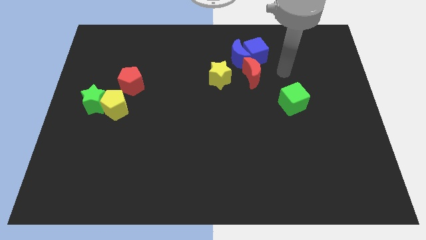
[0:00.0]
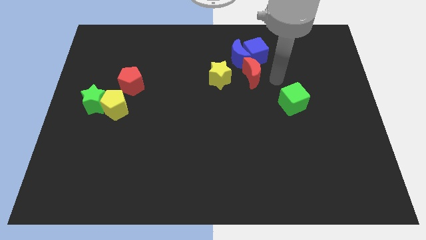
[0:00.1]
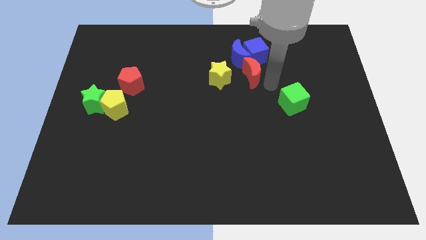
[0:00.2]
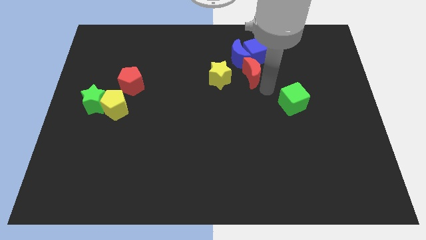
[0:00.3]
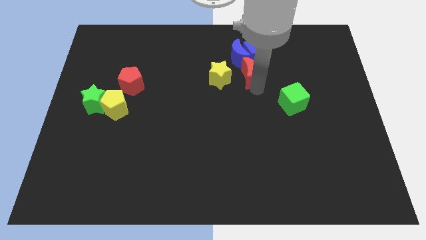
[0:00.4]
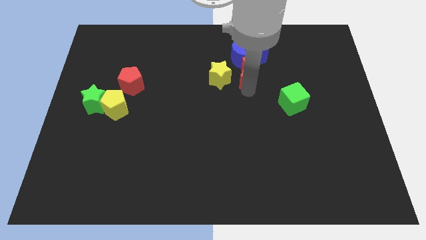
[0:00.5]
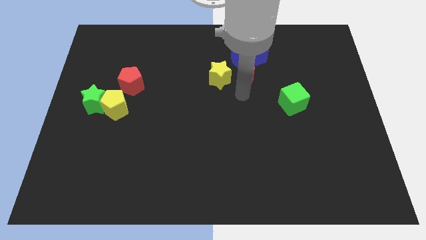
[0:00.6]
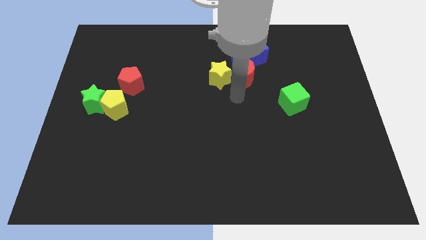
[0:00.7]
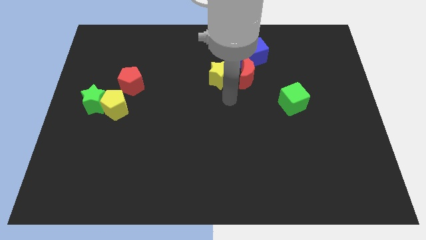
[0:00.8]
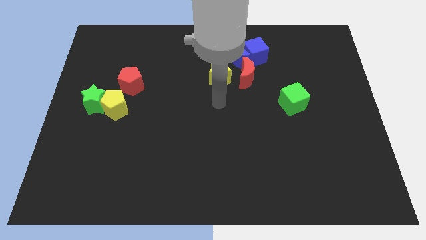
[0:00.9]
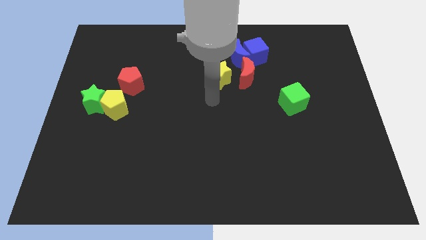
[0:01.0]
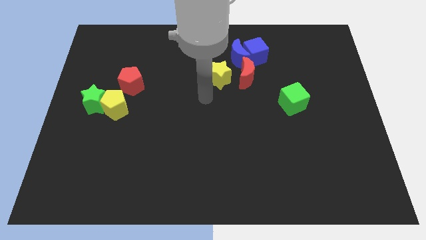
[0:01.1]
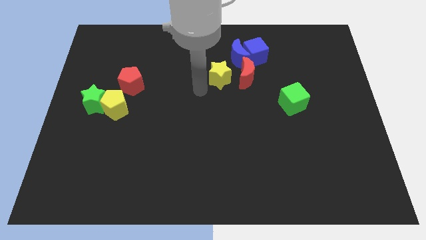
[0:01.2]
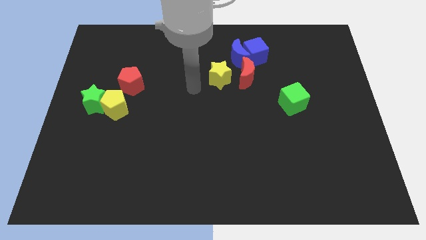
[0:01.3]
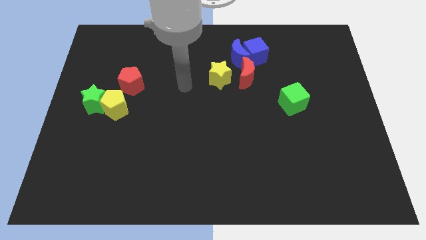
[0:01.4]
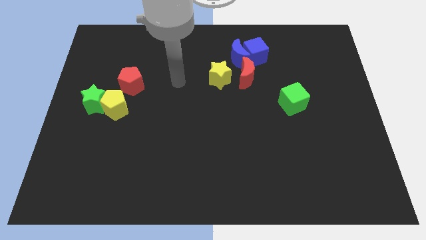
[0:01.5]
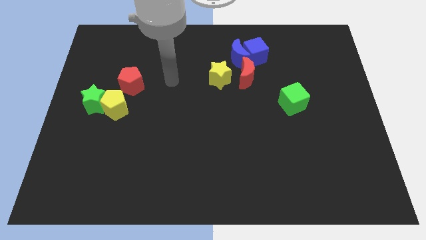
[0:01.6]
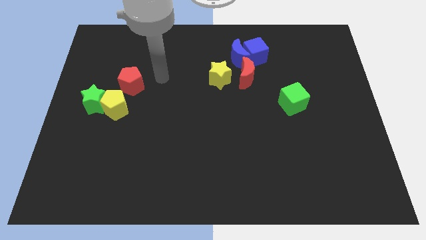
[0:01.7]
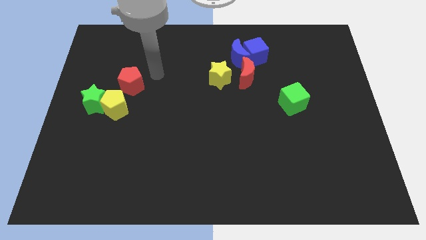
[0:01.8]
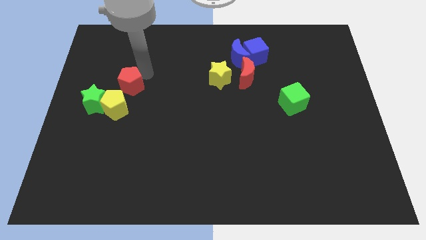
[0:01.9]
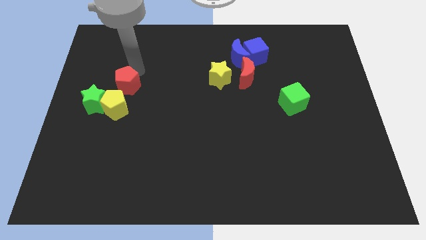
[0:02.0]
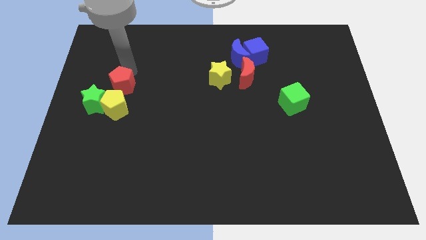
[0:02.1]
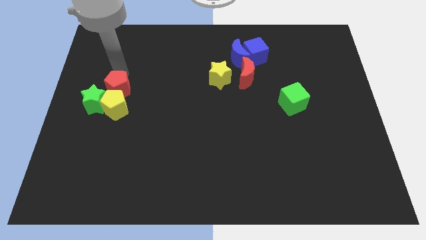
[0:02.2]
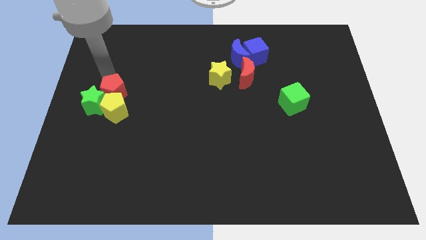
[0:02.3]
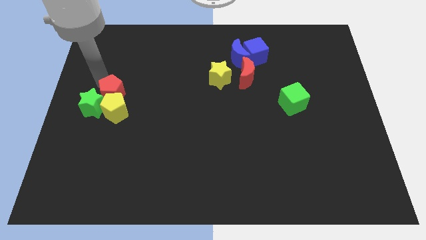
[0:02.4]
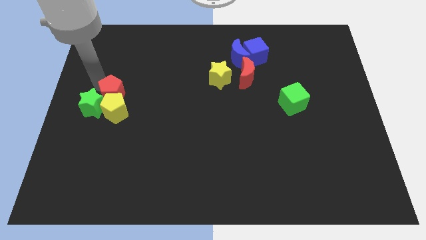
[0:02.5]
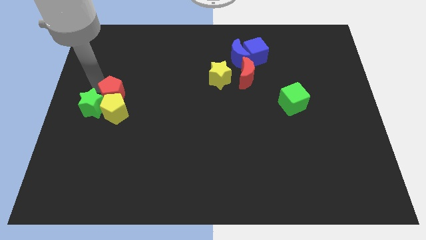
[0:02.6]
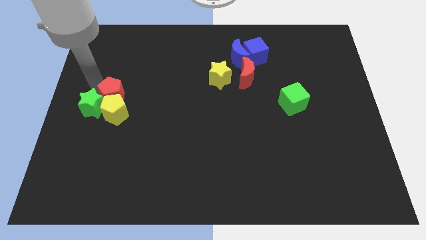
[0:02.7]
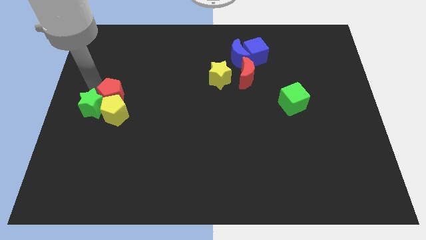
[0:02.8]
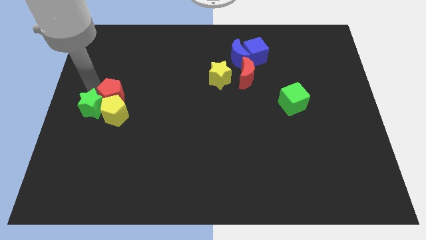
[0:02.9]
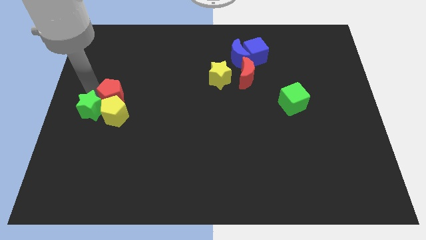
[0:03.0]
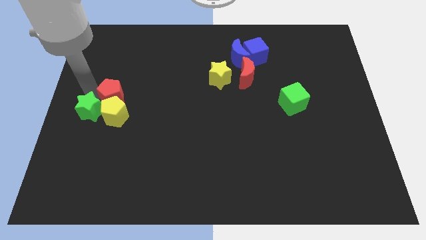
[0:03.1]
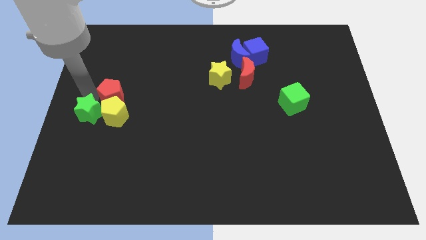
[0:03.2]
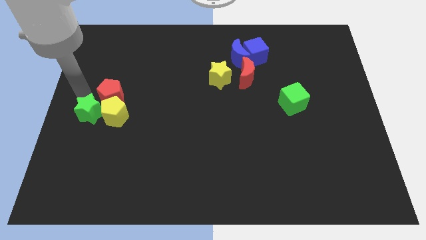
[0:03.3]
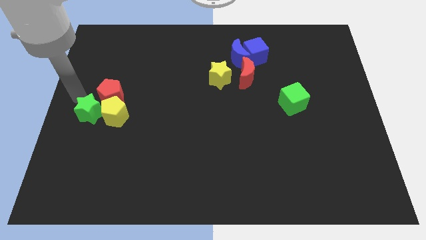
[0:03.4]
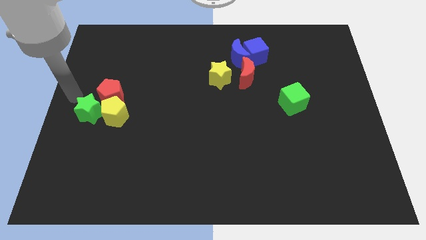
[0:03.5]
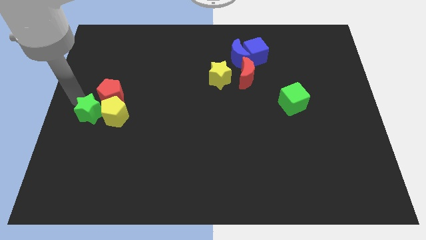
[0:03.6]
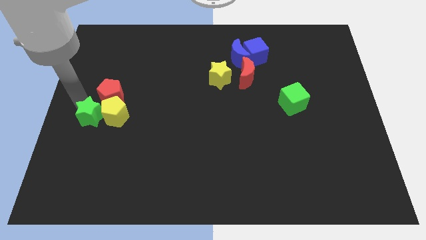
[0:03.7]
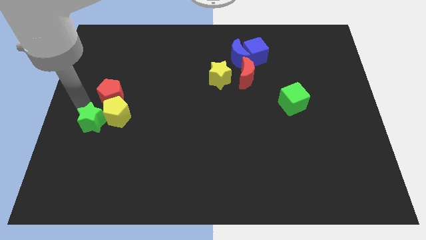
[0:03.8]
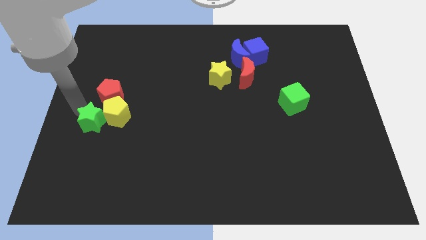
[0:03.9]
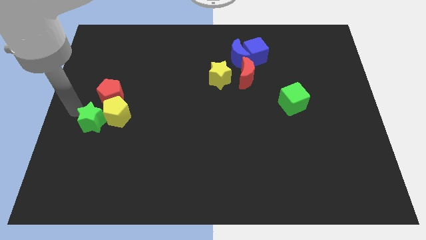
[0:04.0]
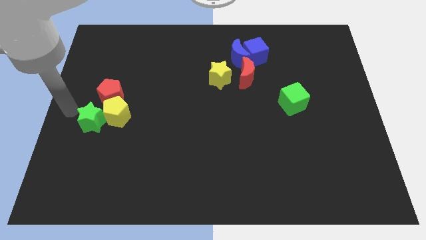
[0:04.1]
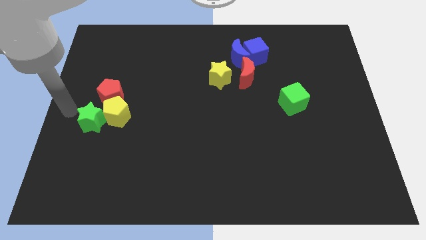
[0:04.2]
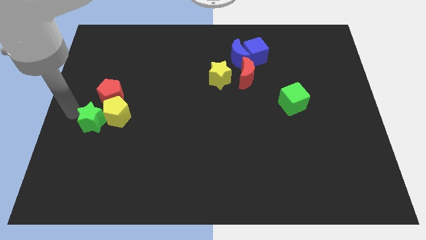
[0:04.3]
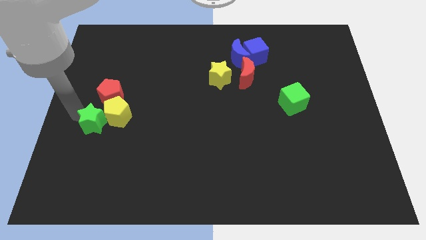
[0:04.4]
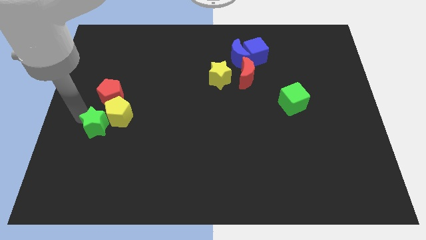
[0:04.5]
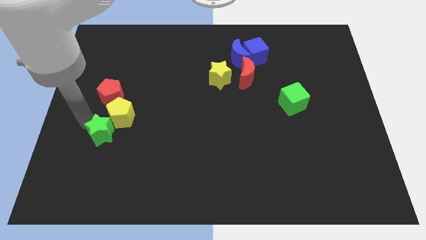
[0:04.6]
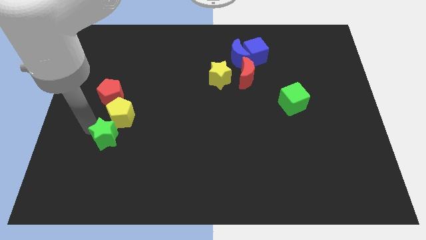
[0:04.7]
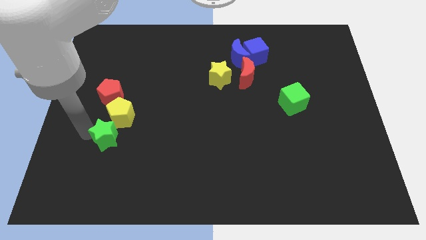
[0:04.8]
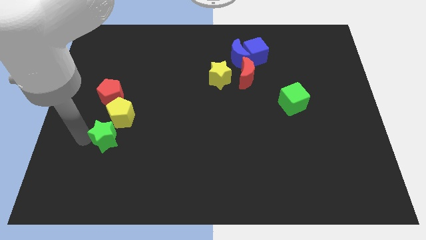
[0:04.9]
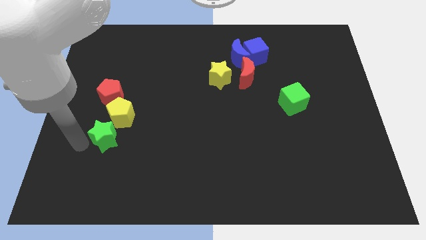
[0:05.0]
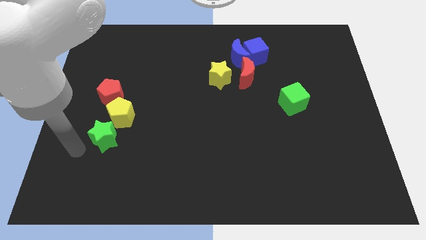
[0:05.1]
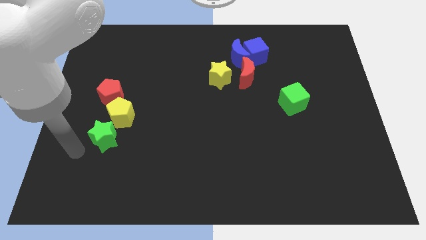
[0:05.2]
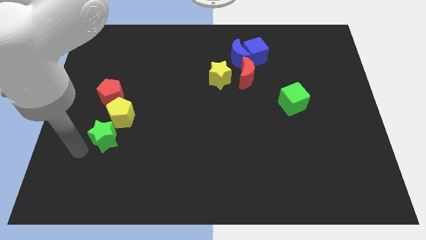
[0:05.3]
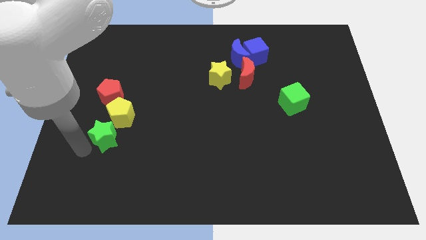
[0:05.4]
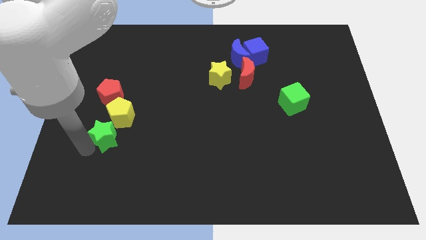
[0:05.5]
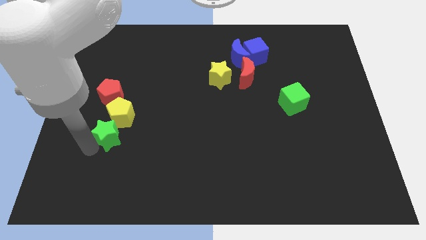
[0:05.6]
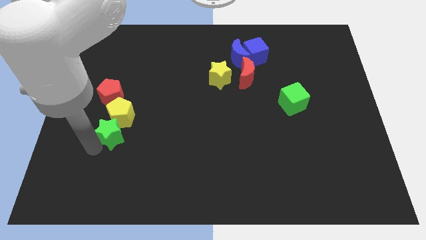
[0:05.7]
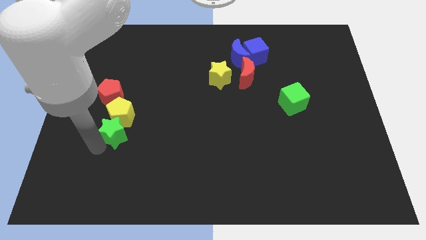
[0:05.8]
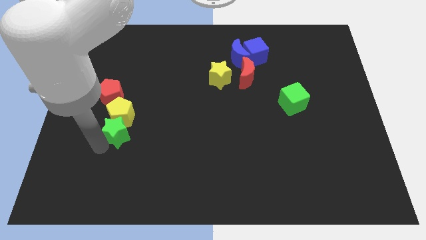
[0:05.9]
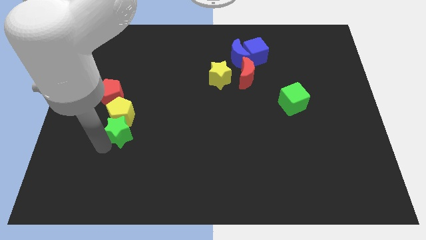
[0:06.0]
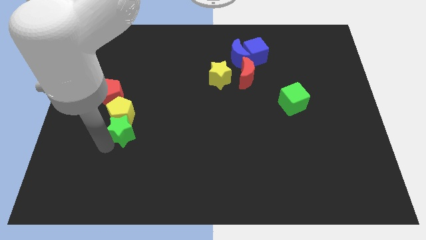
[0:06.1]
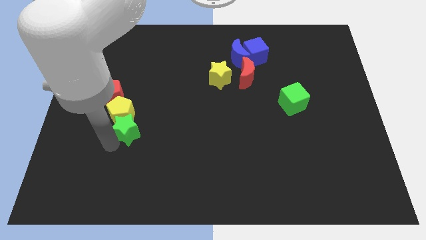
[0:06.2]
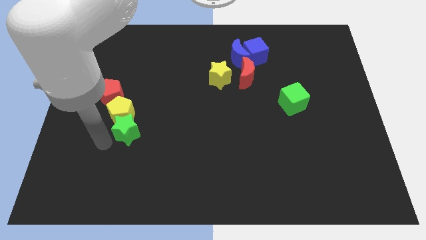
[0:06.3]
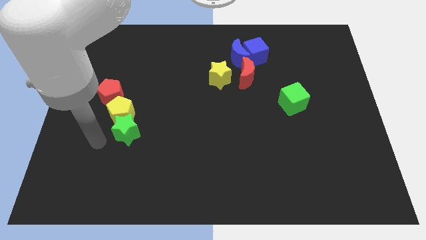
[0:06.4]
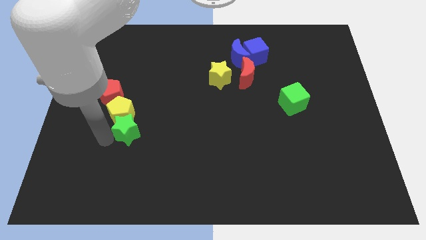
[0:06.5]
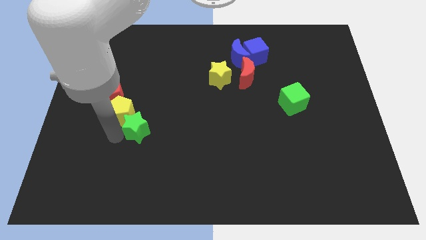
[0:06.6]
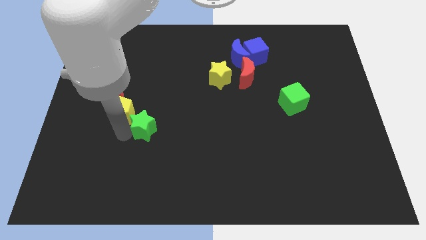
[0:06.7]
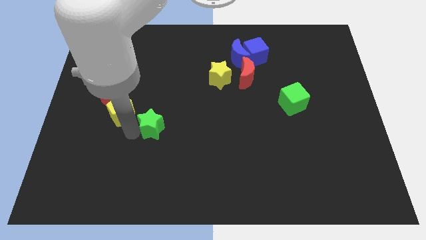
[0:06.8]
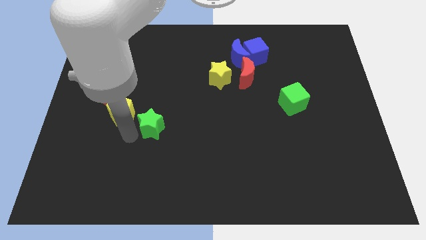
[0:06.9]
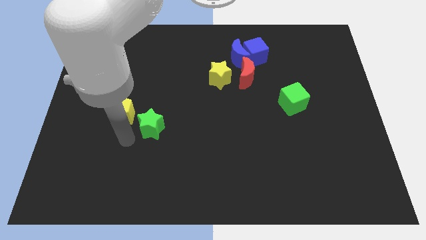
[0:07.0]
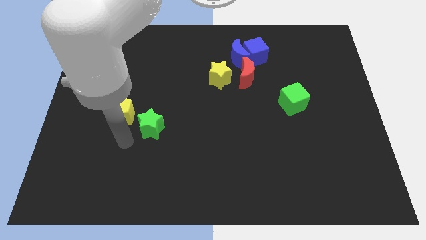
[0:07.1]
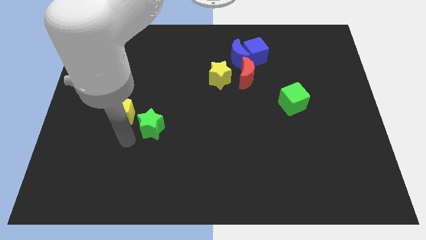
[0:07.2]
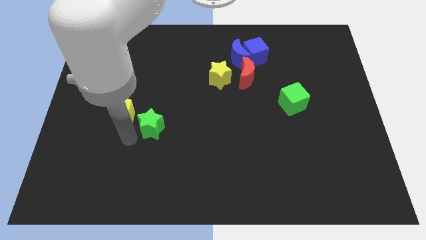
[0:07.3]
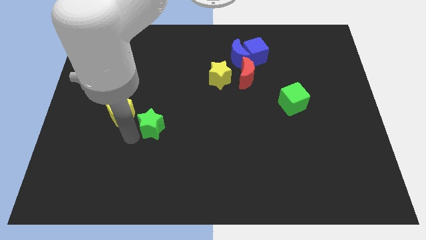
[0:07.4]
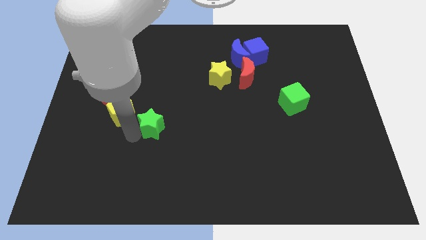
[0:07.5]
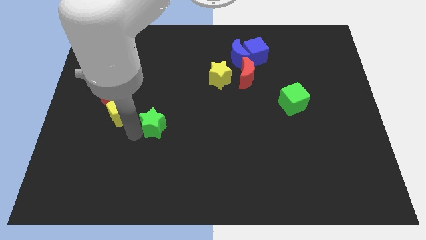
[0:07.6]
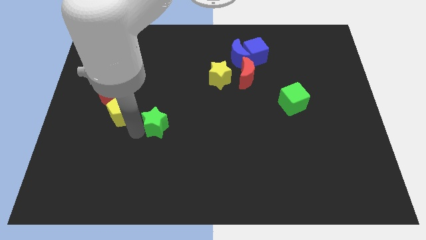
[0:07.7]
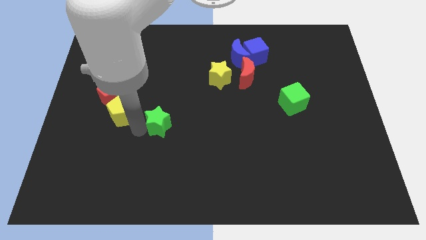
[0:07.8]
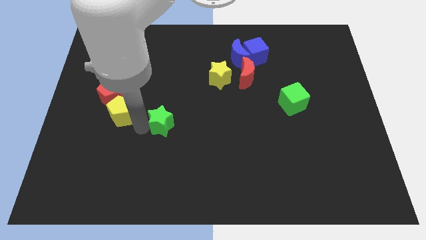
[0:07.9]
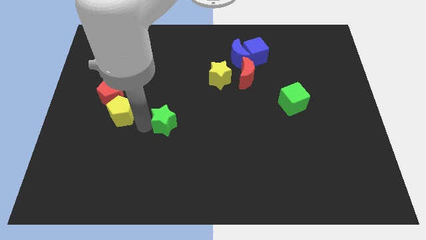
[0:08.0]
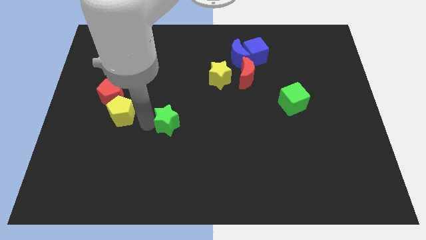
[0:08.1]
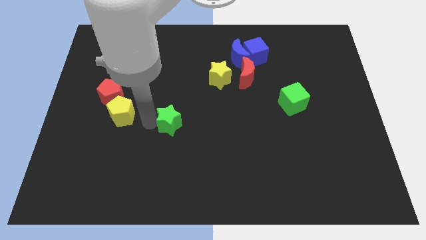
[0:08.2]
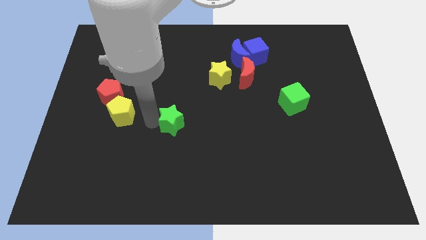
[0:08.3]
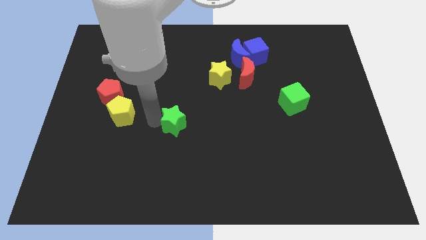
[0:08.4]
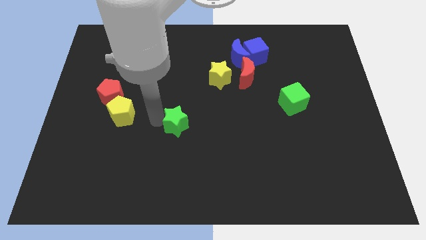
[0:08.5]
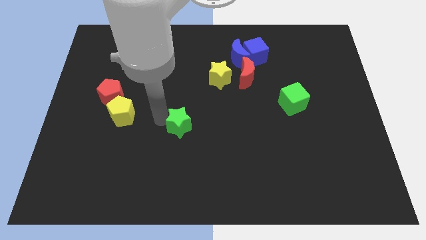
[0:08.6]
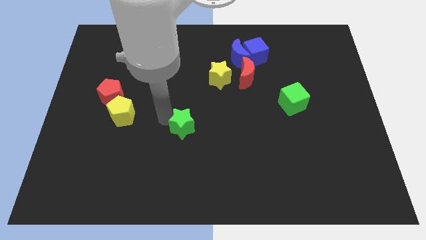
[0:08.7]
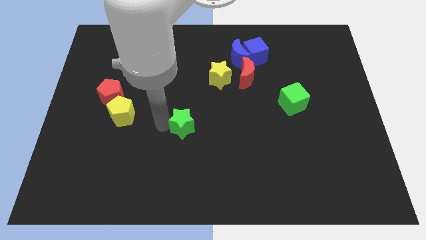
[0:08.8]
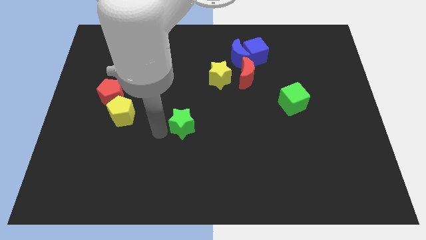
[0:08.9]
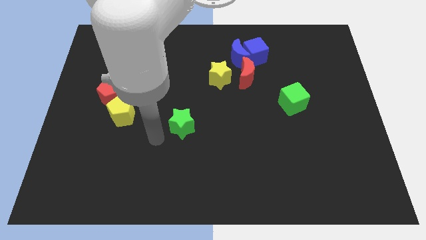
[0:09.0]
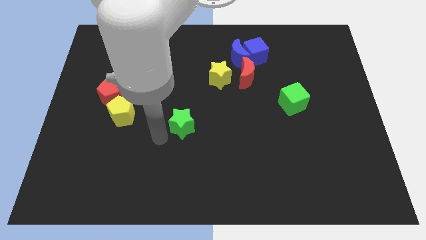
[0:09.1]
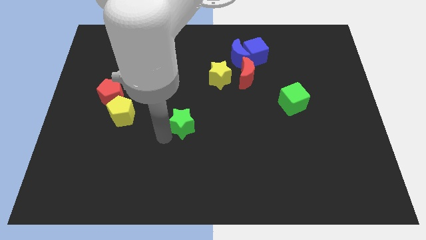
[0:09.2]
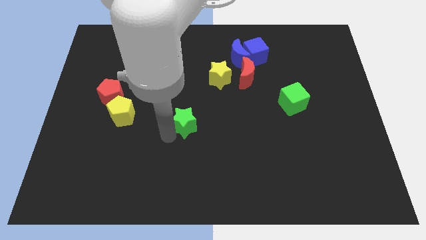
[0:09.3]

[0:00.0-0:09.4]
slide the green star to the right
